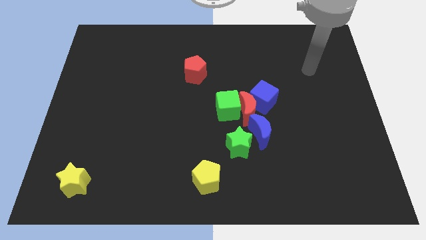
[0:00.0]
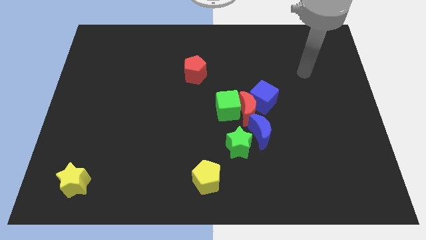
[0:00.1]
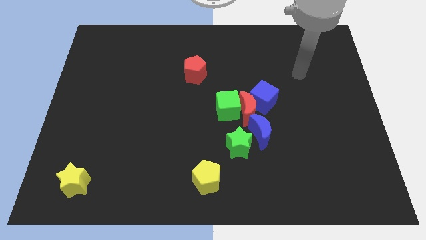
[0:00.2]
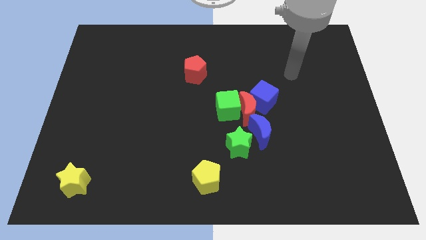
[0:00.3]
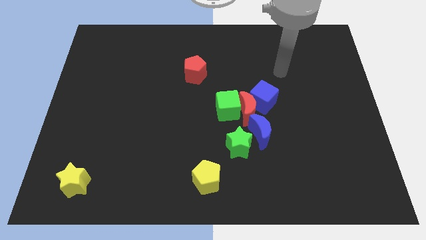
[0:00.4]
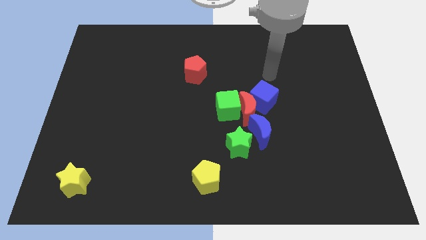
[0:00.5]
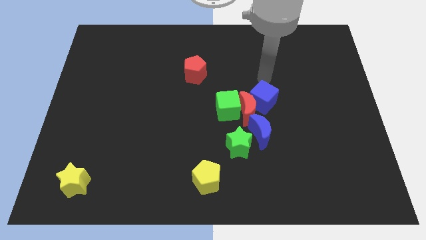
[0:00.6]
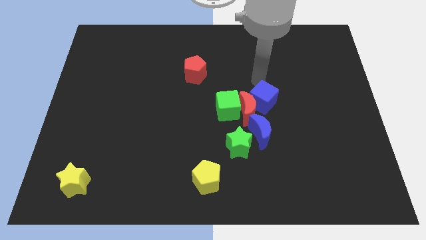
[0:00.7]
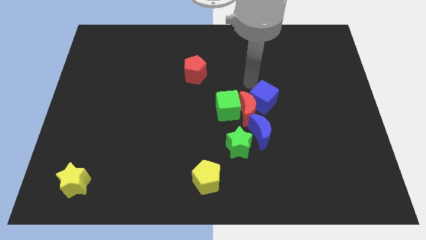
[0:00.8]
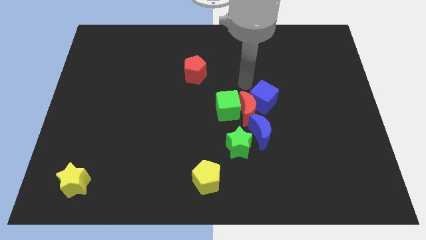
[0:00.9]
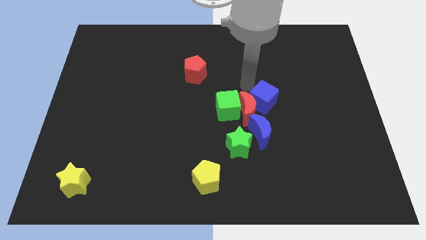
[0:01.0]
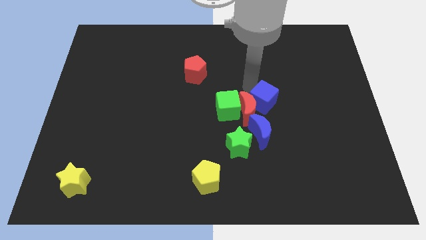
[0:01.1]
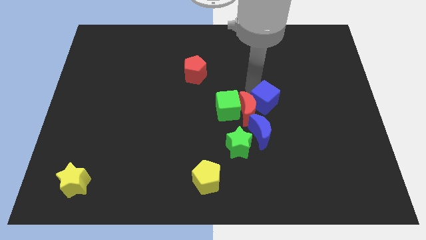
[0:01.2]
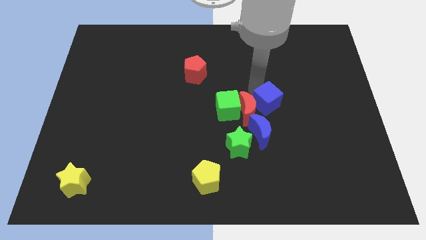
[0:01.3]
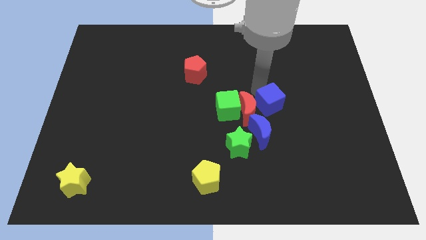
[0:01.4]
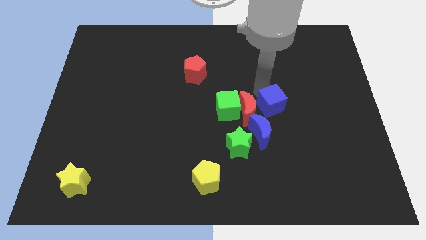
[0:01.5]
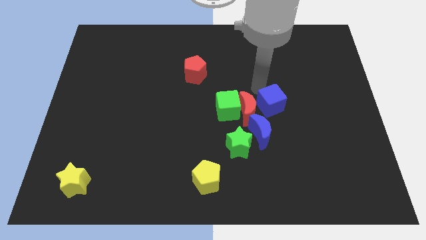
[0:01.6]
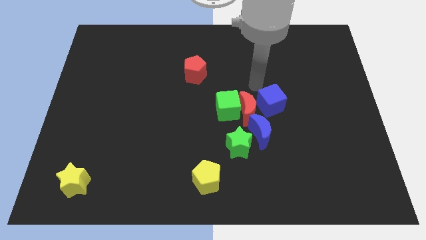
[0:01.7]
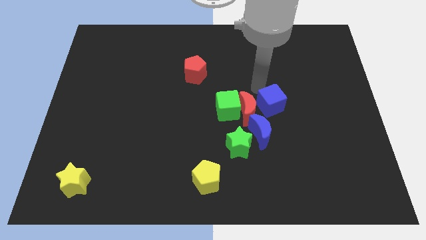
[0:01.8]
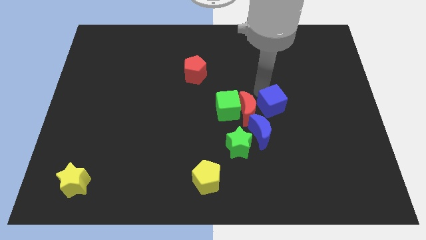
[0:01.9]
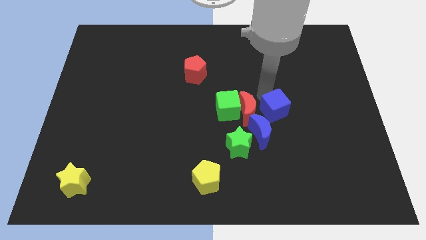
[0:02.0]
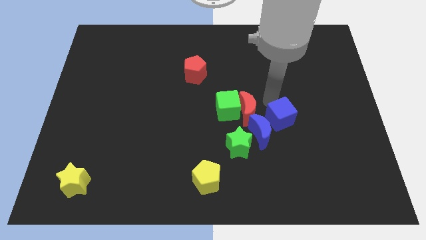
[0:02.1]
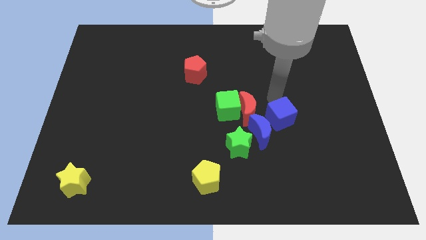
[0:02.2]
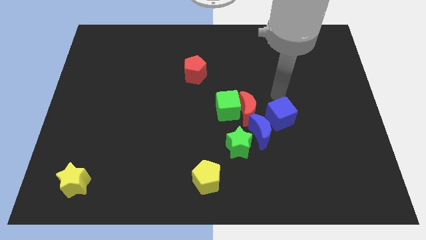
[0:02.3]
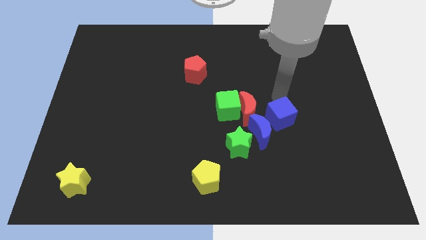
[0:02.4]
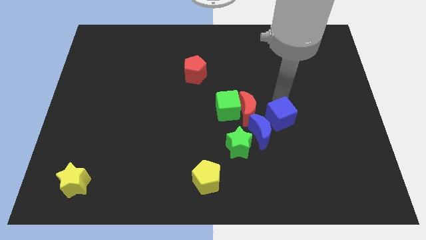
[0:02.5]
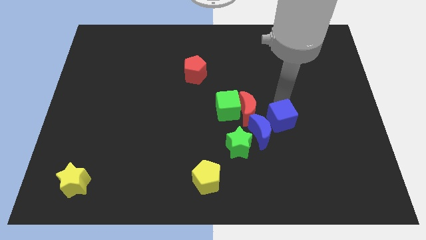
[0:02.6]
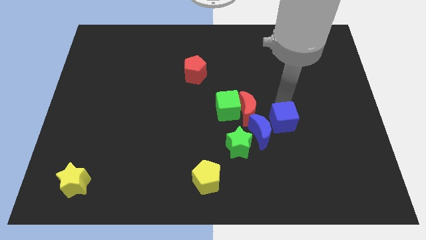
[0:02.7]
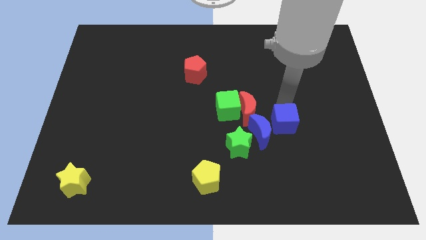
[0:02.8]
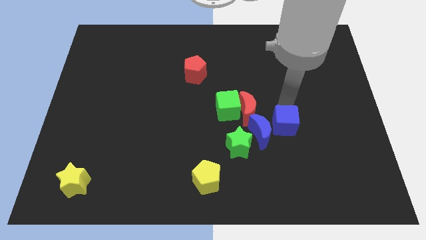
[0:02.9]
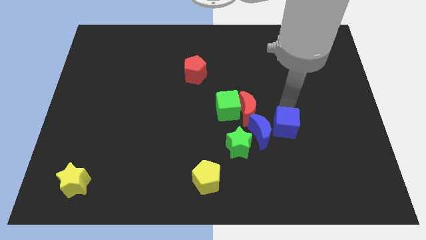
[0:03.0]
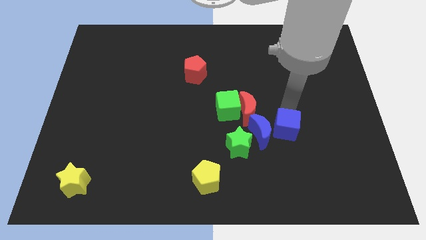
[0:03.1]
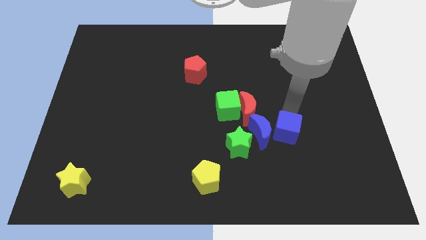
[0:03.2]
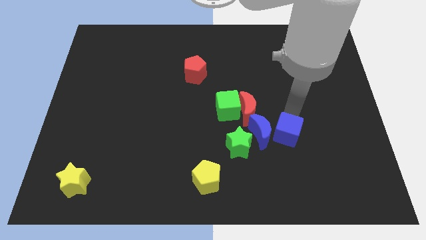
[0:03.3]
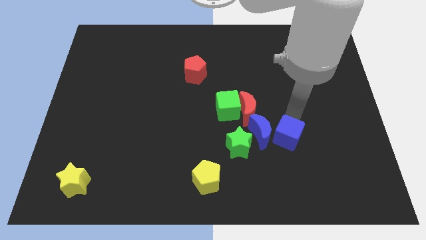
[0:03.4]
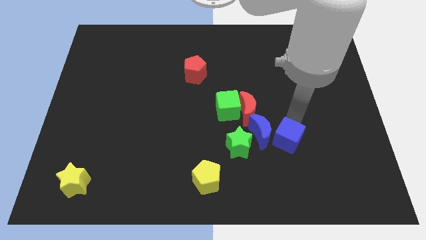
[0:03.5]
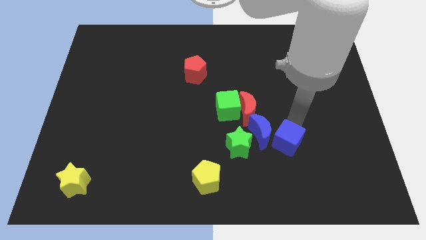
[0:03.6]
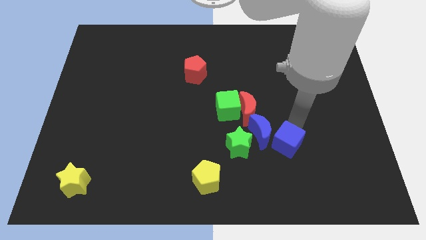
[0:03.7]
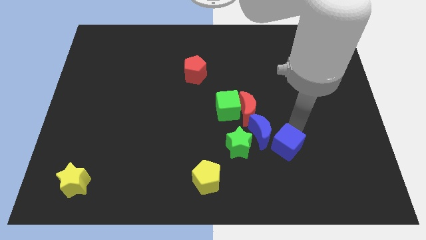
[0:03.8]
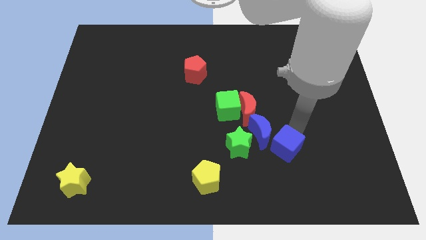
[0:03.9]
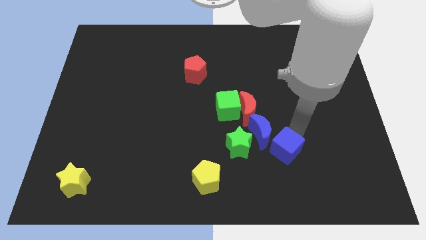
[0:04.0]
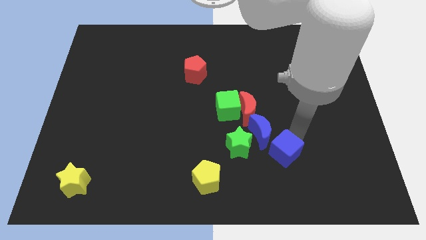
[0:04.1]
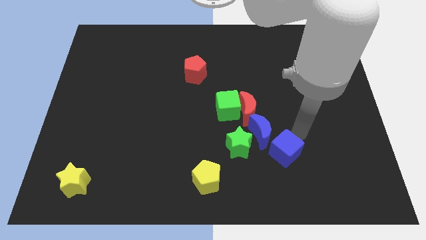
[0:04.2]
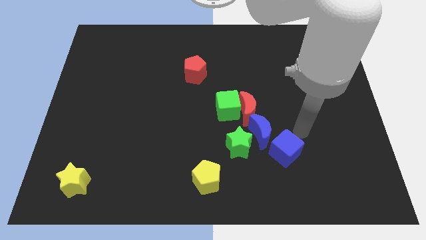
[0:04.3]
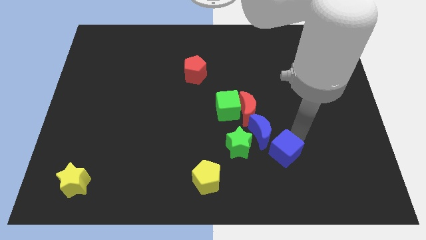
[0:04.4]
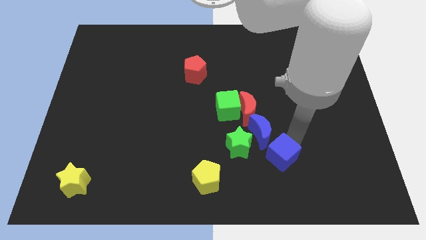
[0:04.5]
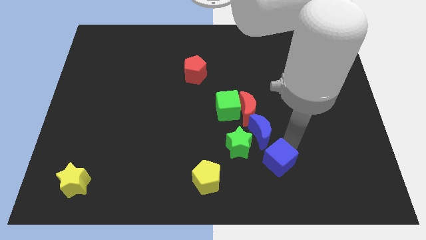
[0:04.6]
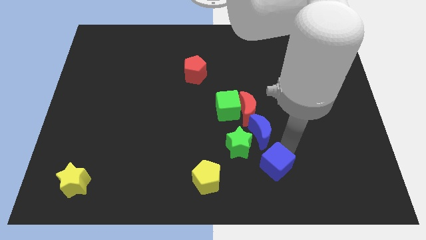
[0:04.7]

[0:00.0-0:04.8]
move the blue cube just right of the yellow pentagon

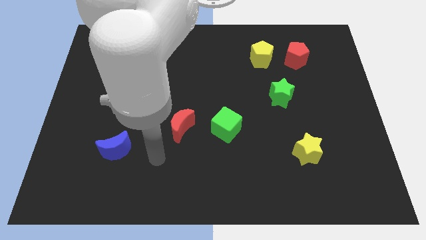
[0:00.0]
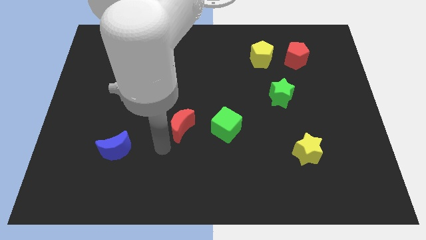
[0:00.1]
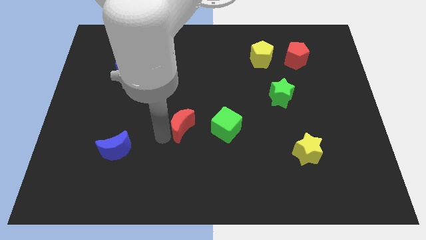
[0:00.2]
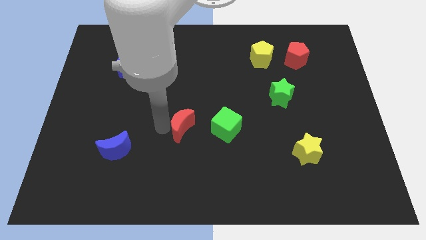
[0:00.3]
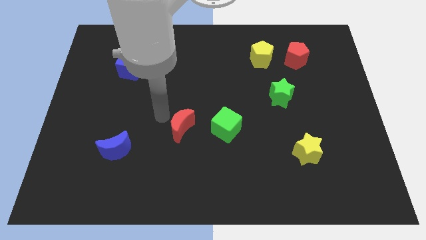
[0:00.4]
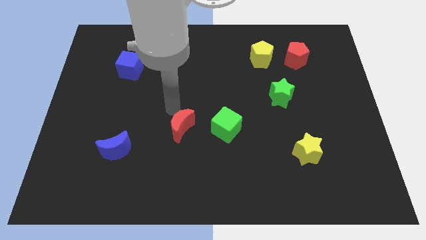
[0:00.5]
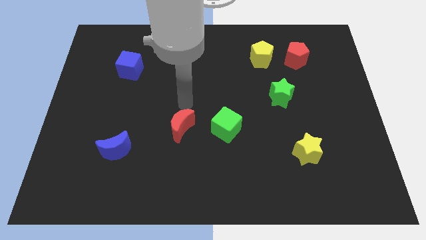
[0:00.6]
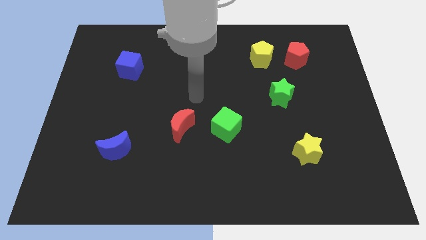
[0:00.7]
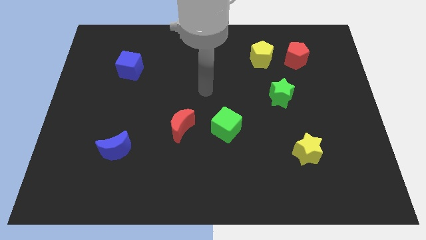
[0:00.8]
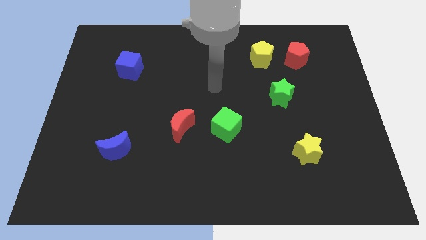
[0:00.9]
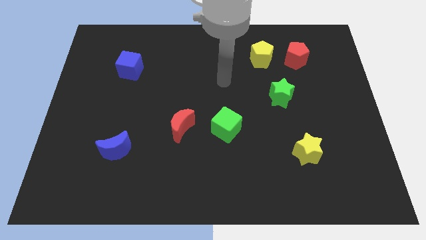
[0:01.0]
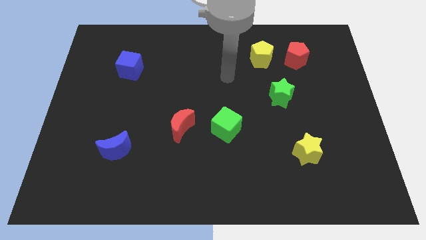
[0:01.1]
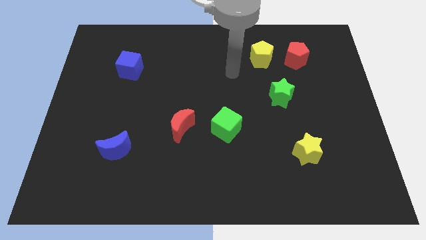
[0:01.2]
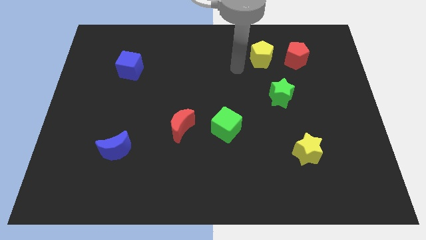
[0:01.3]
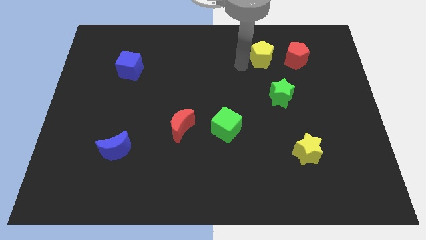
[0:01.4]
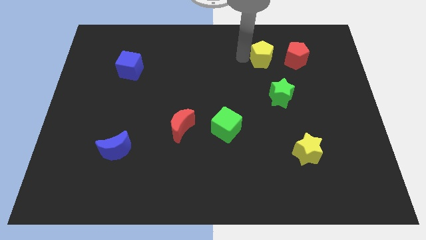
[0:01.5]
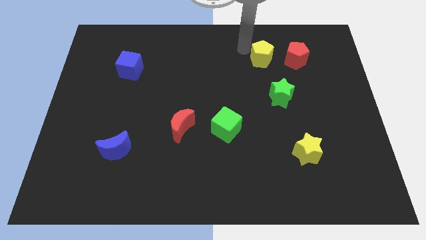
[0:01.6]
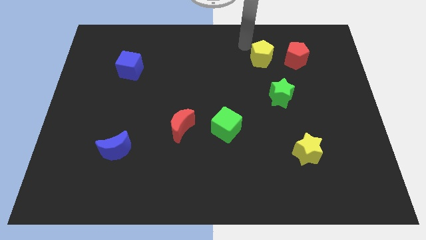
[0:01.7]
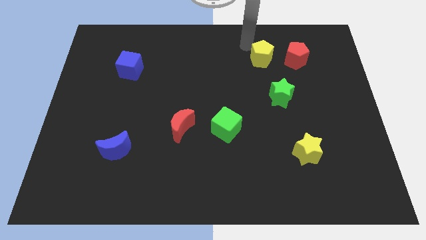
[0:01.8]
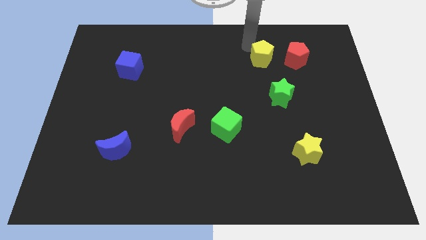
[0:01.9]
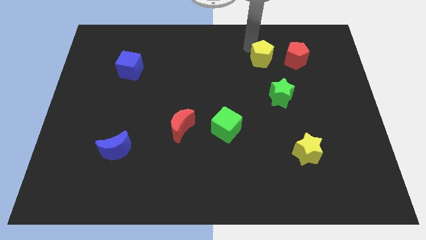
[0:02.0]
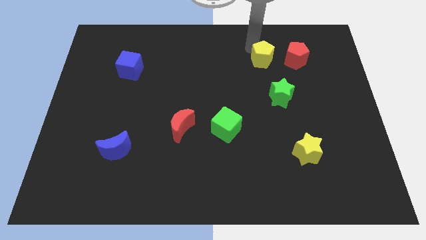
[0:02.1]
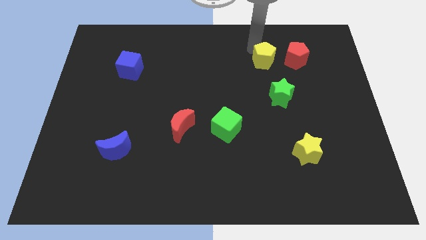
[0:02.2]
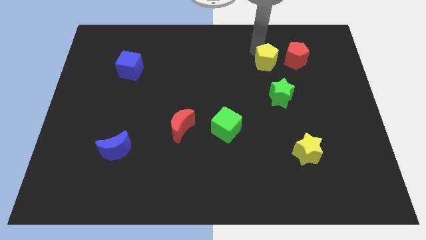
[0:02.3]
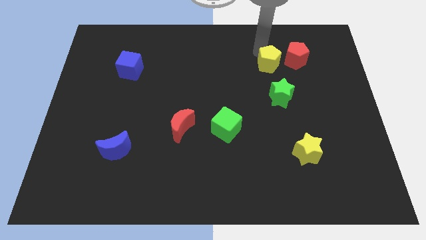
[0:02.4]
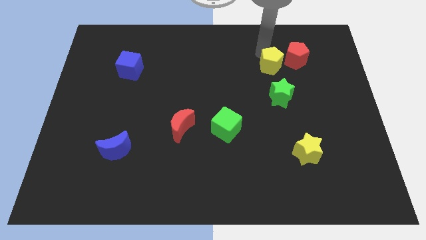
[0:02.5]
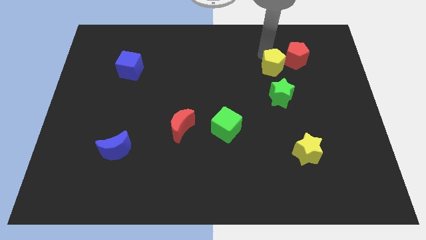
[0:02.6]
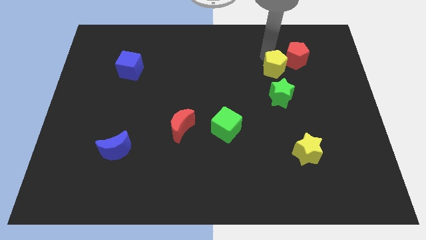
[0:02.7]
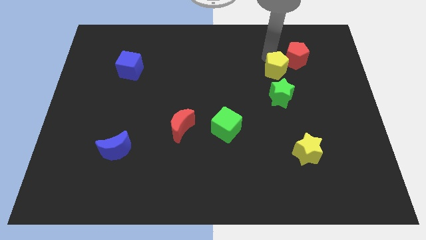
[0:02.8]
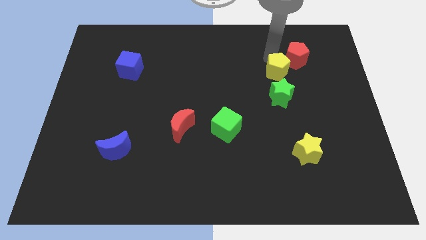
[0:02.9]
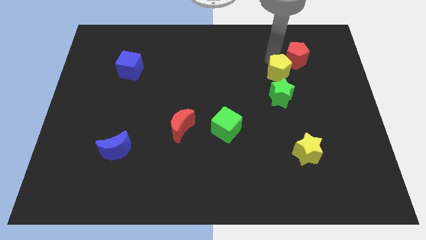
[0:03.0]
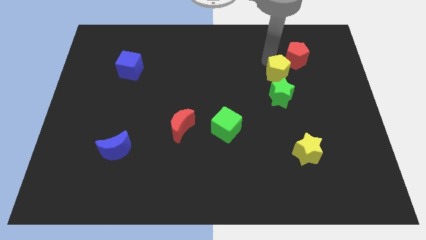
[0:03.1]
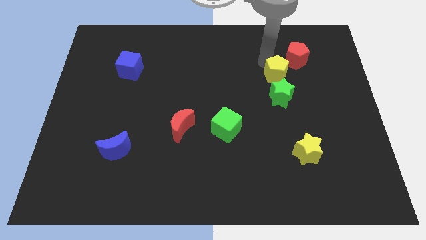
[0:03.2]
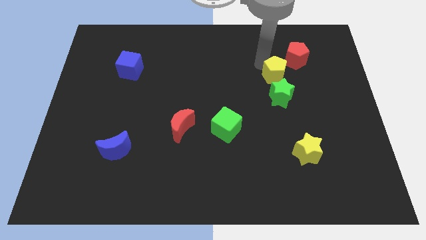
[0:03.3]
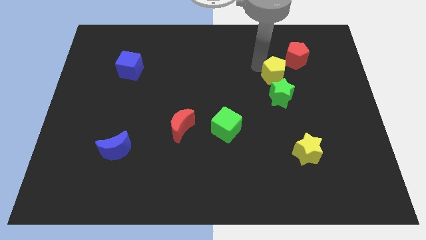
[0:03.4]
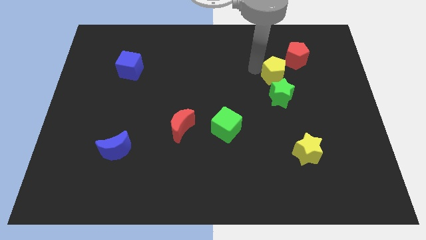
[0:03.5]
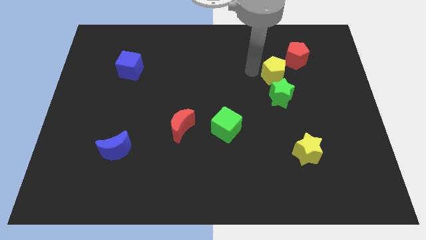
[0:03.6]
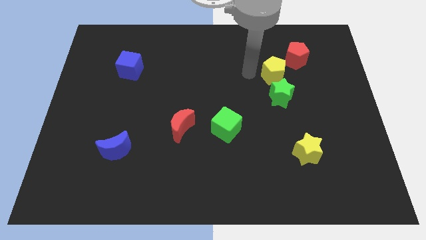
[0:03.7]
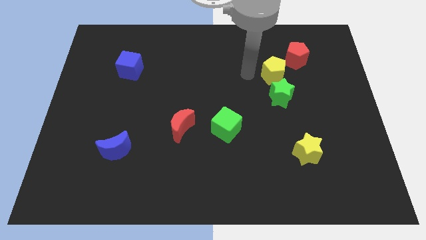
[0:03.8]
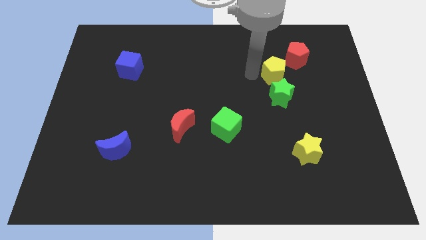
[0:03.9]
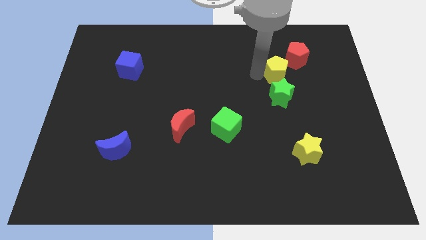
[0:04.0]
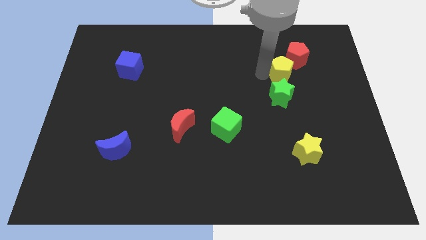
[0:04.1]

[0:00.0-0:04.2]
slide the yellow pentagon to the bottom of the red pentagon
